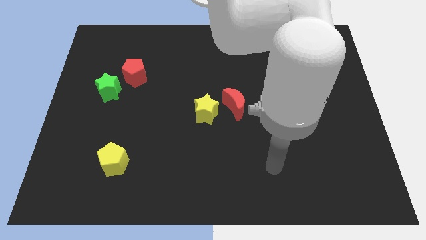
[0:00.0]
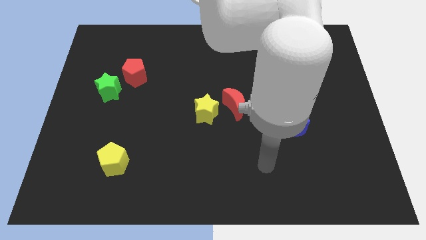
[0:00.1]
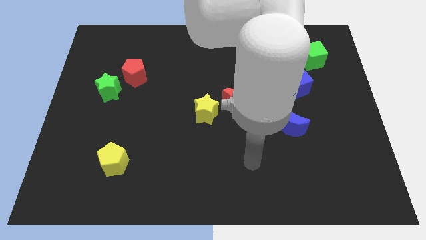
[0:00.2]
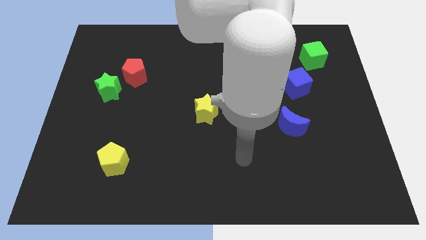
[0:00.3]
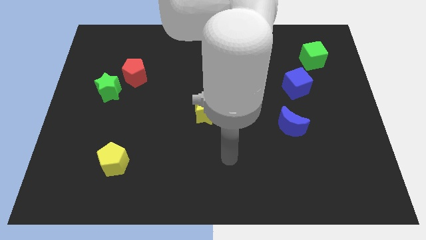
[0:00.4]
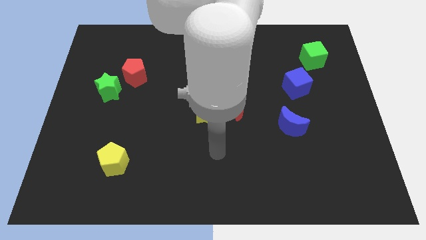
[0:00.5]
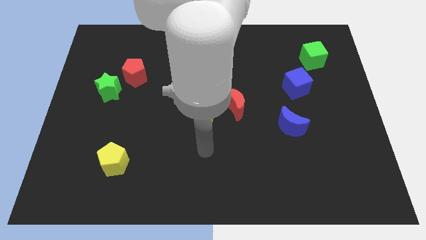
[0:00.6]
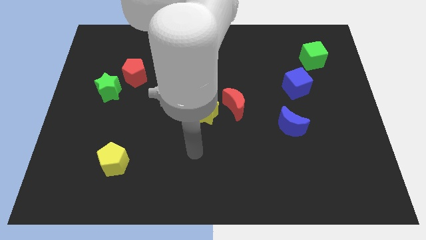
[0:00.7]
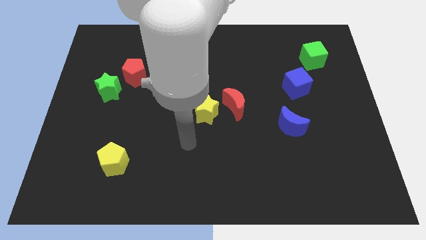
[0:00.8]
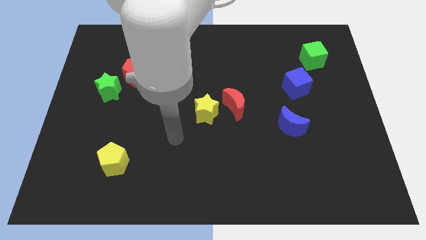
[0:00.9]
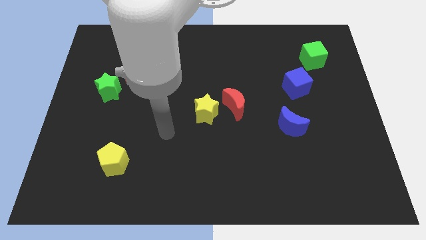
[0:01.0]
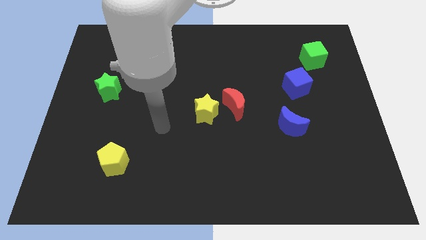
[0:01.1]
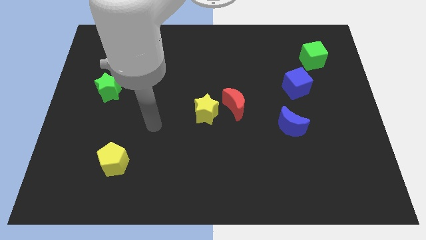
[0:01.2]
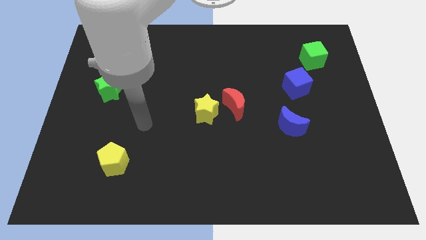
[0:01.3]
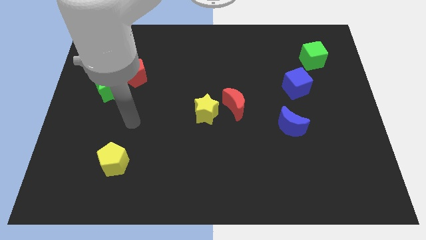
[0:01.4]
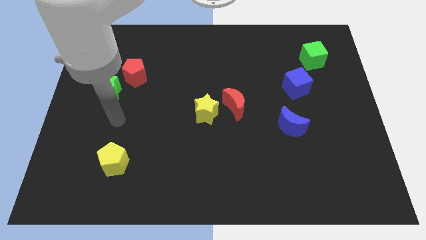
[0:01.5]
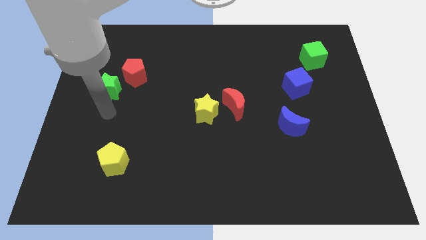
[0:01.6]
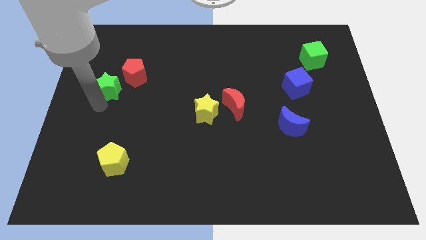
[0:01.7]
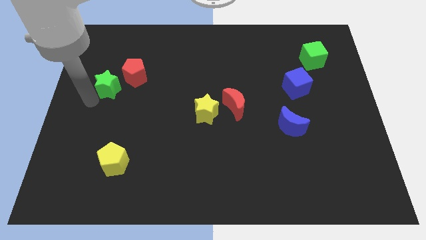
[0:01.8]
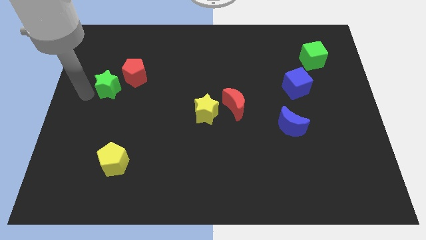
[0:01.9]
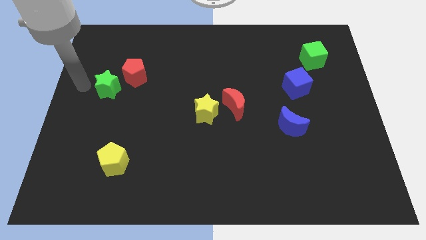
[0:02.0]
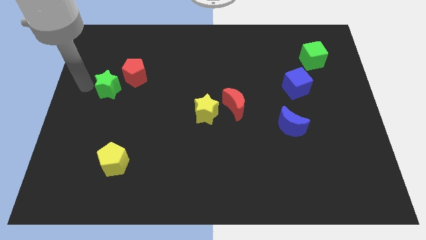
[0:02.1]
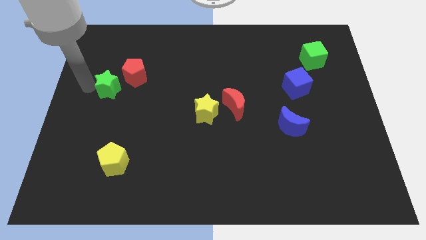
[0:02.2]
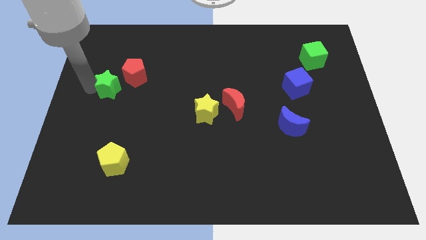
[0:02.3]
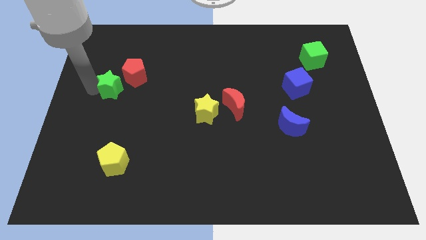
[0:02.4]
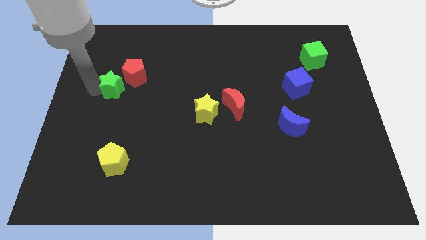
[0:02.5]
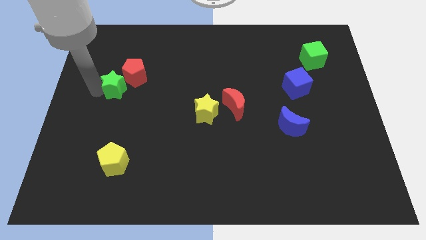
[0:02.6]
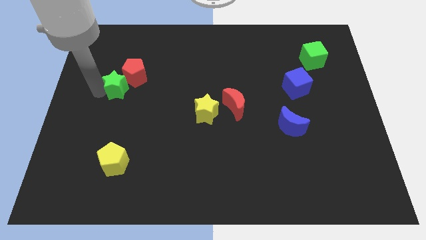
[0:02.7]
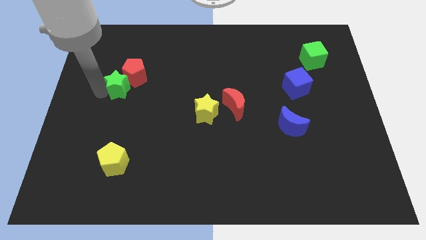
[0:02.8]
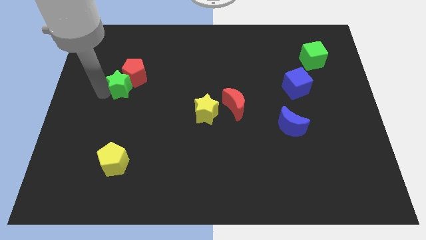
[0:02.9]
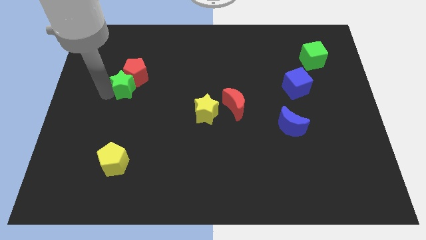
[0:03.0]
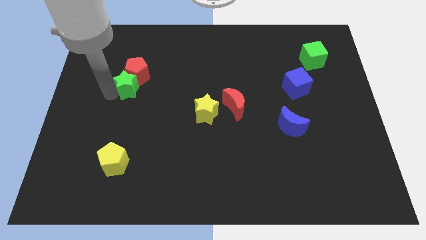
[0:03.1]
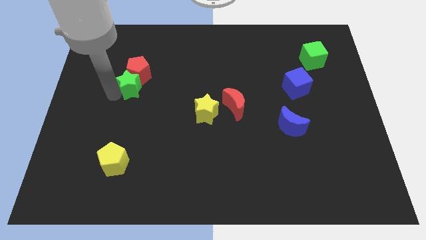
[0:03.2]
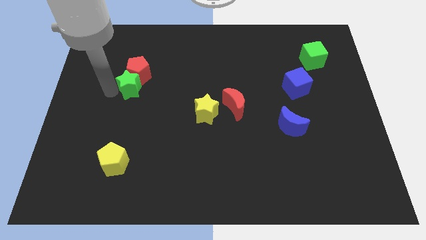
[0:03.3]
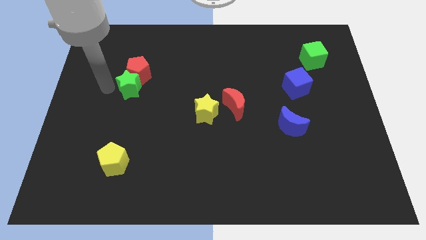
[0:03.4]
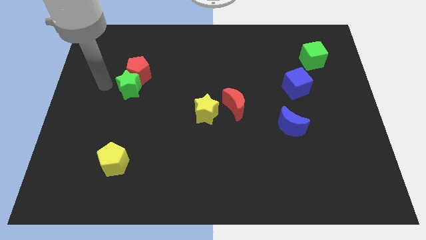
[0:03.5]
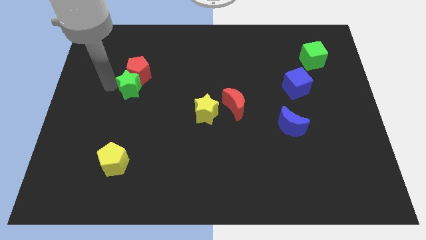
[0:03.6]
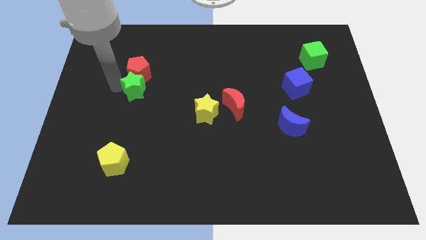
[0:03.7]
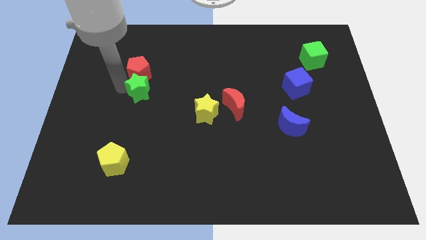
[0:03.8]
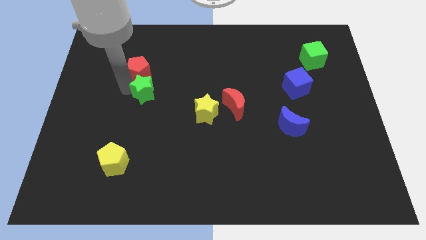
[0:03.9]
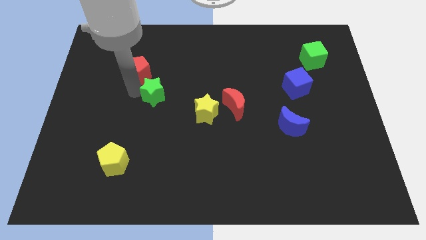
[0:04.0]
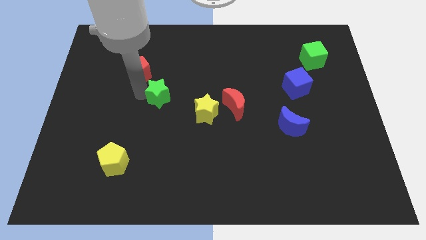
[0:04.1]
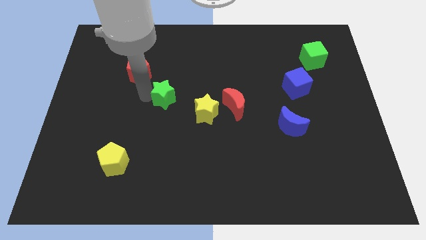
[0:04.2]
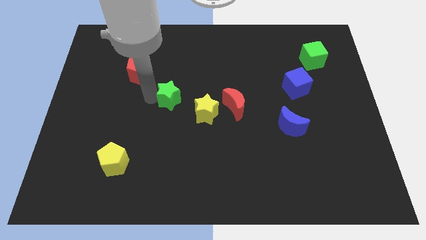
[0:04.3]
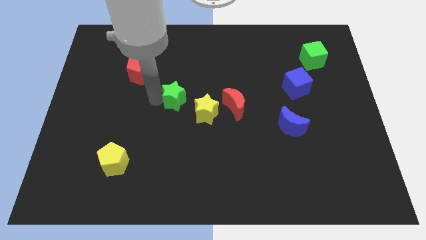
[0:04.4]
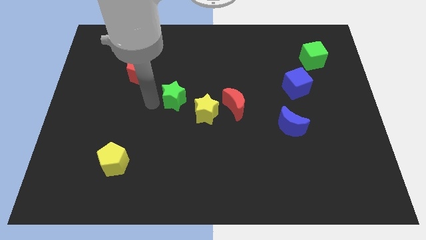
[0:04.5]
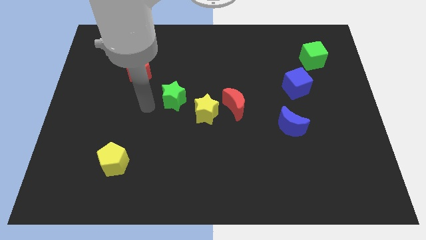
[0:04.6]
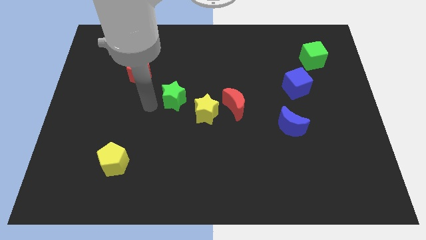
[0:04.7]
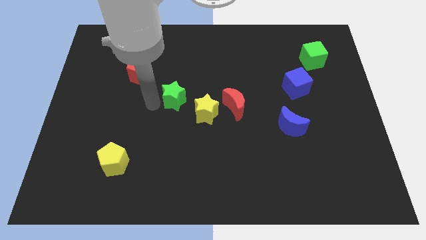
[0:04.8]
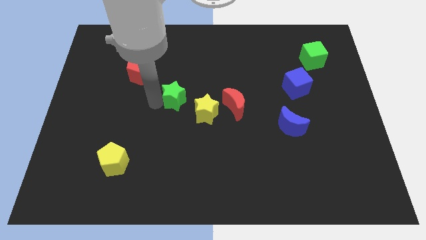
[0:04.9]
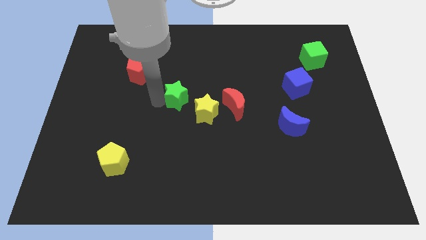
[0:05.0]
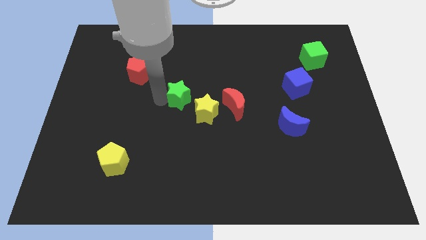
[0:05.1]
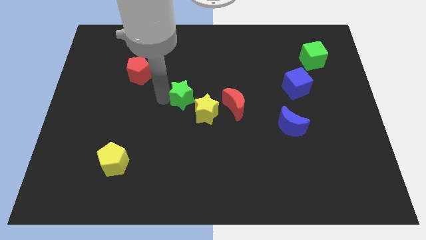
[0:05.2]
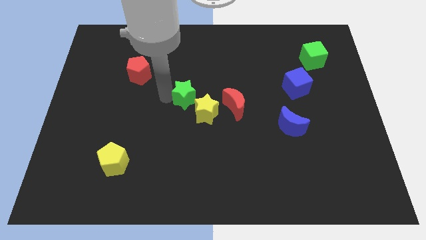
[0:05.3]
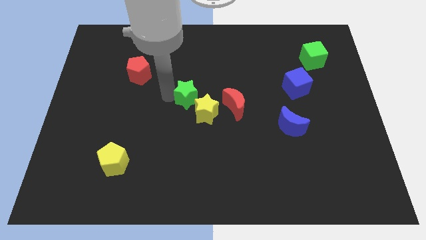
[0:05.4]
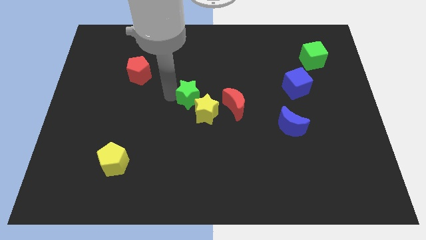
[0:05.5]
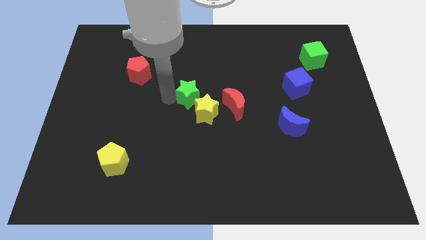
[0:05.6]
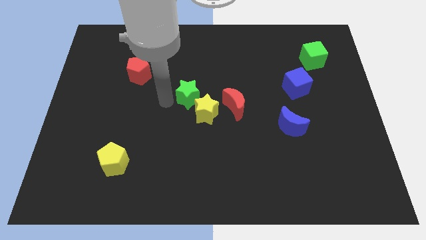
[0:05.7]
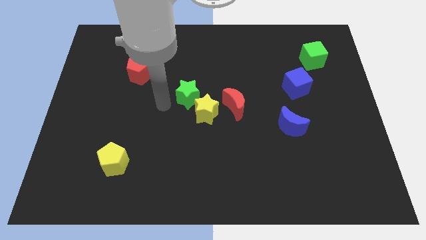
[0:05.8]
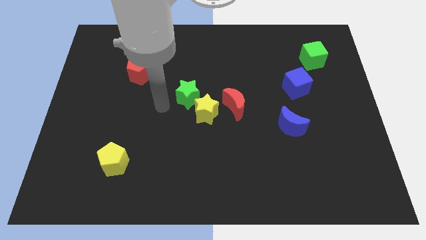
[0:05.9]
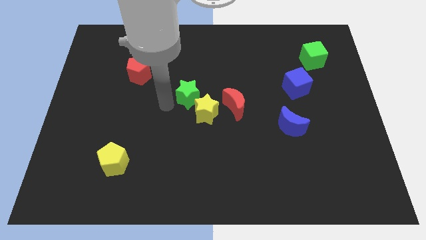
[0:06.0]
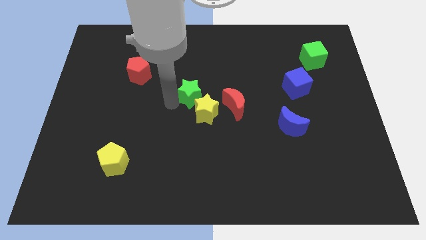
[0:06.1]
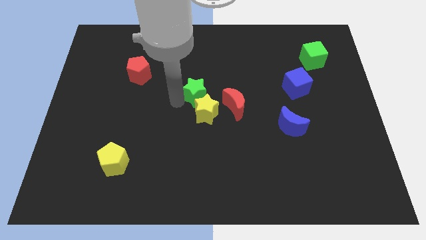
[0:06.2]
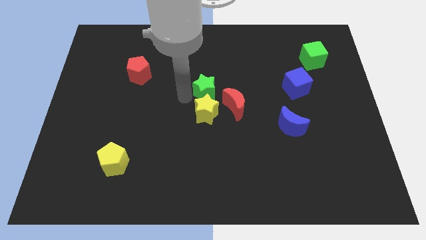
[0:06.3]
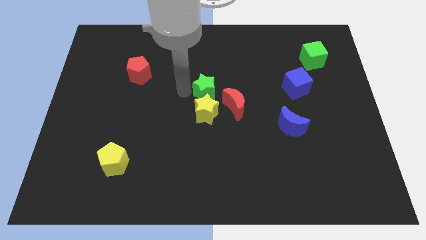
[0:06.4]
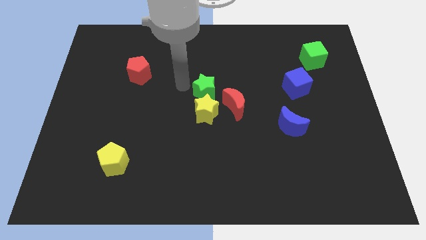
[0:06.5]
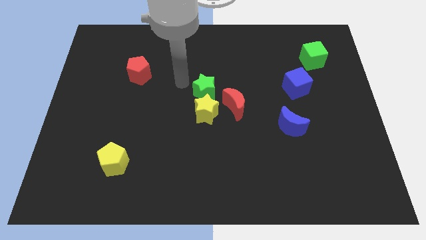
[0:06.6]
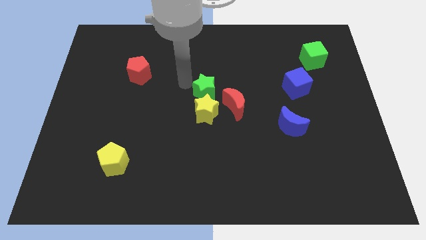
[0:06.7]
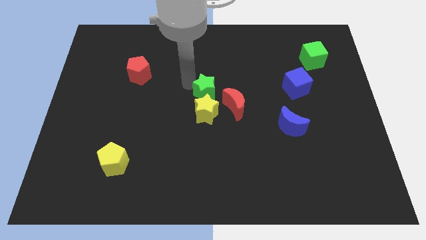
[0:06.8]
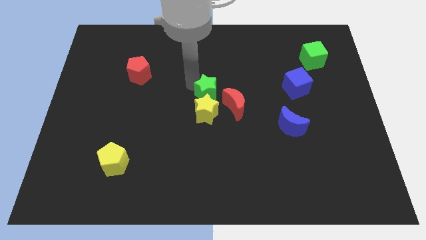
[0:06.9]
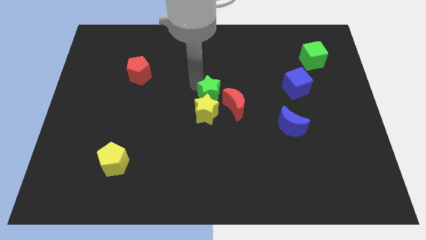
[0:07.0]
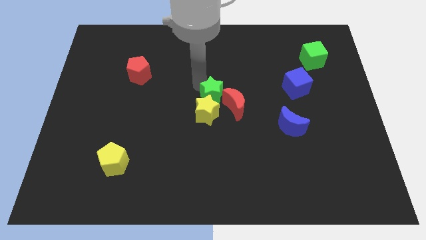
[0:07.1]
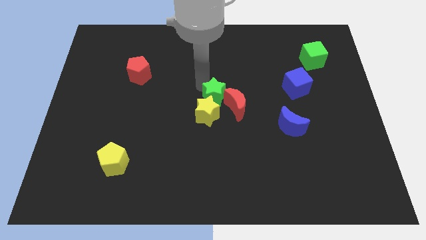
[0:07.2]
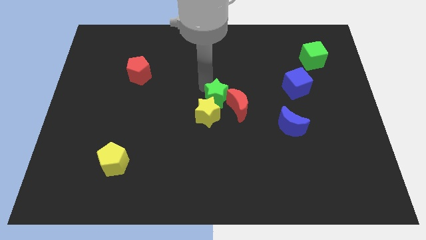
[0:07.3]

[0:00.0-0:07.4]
move the green star to the red moon

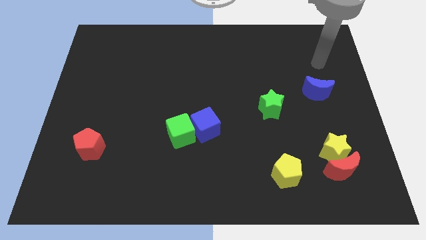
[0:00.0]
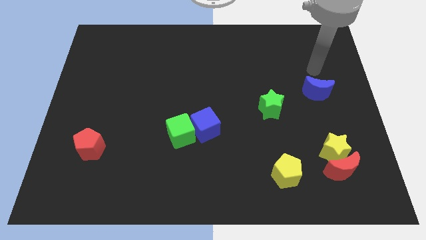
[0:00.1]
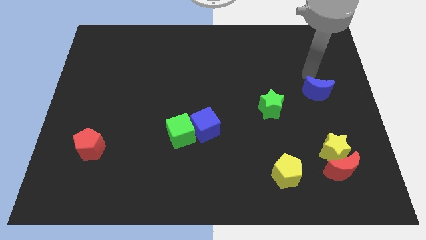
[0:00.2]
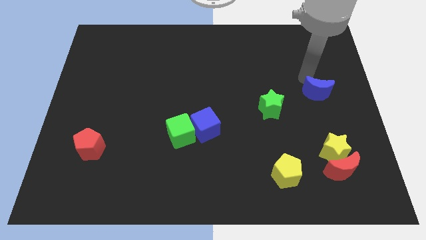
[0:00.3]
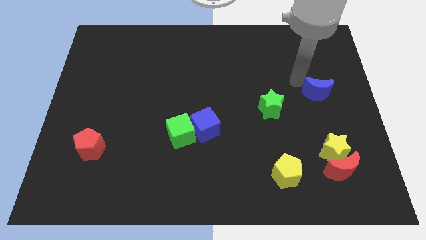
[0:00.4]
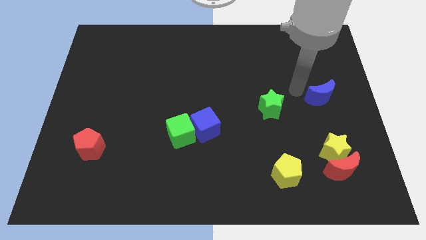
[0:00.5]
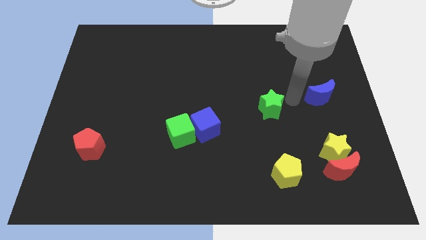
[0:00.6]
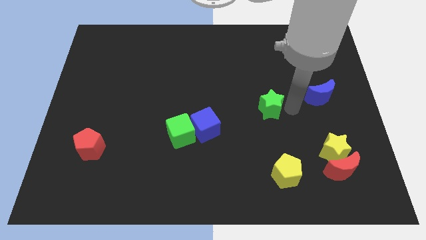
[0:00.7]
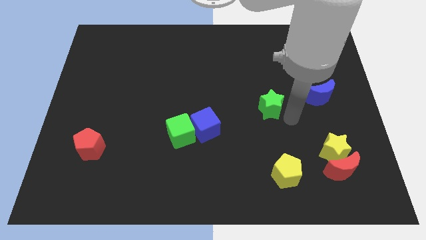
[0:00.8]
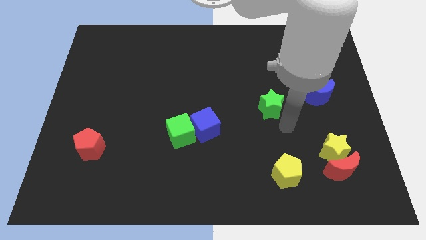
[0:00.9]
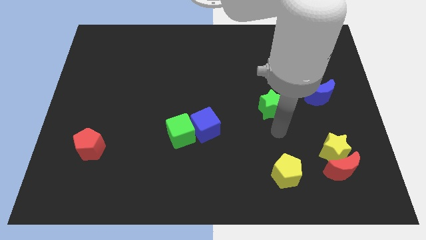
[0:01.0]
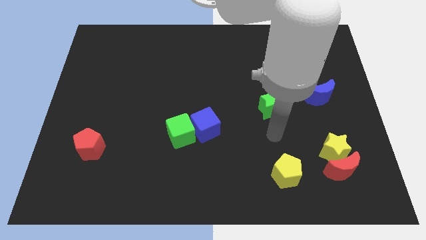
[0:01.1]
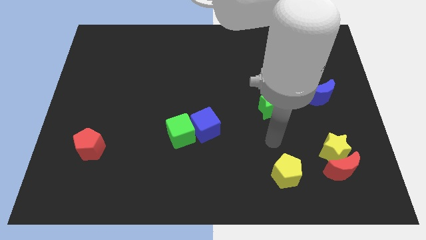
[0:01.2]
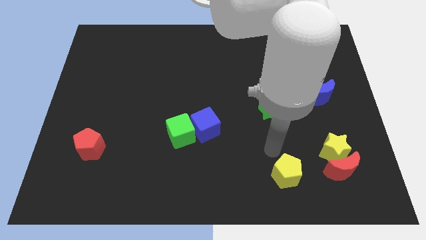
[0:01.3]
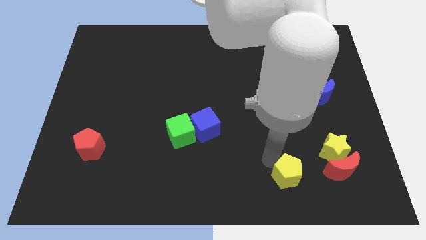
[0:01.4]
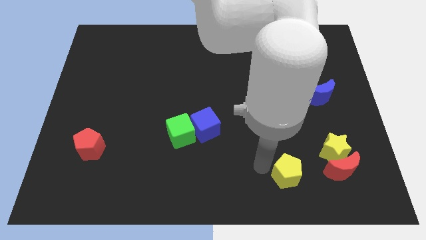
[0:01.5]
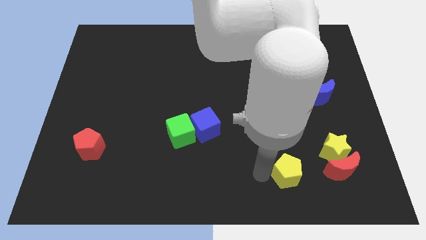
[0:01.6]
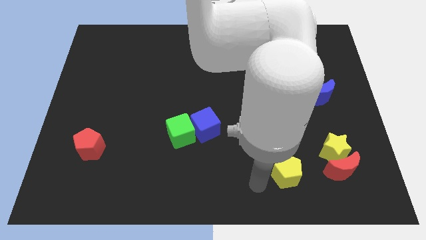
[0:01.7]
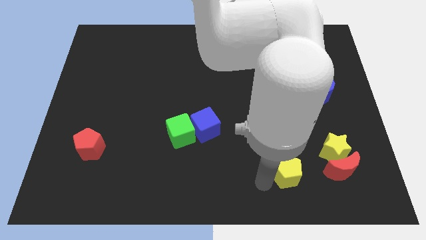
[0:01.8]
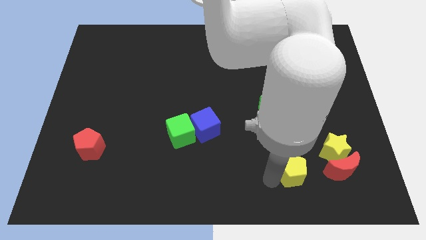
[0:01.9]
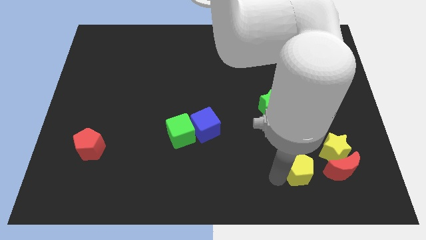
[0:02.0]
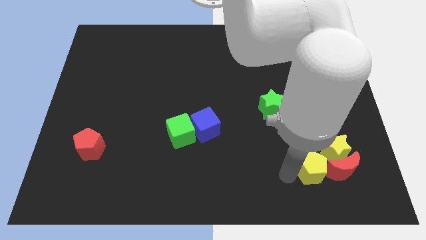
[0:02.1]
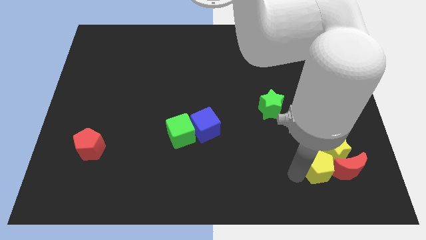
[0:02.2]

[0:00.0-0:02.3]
move the yellow pentagon close to the yellow star
